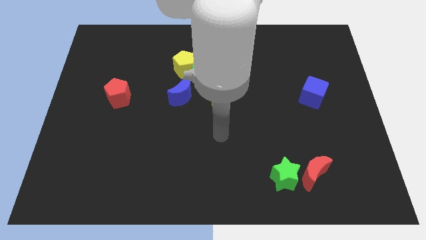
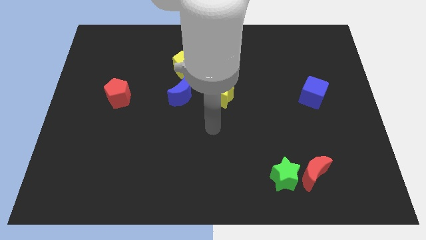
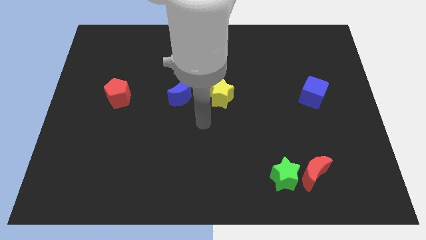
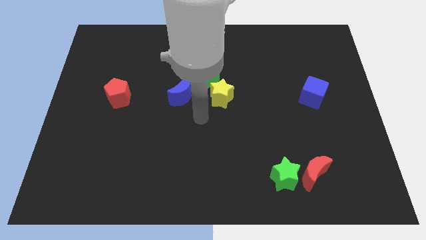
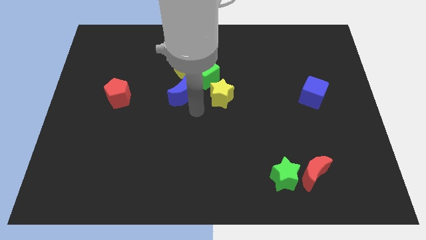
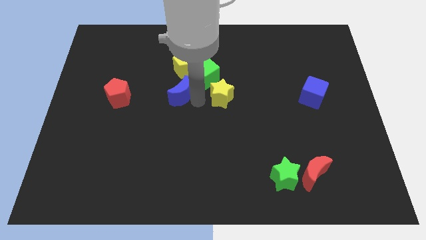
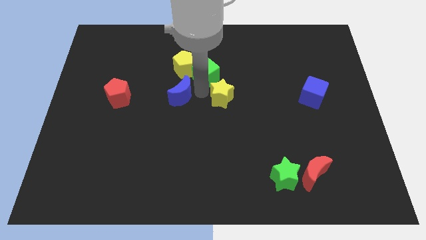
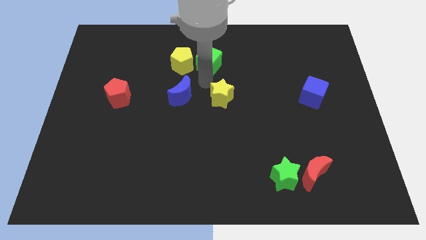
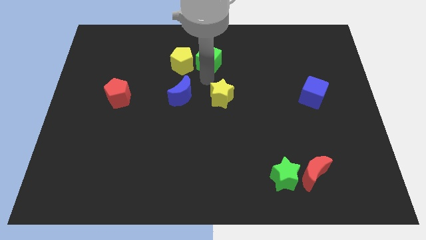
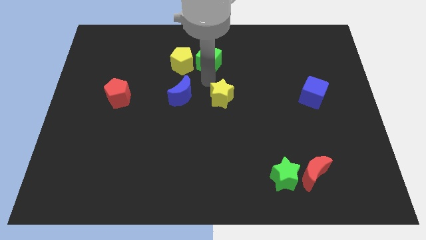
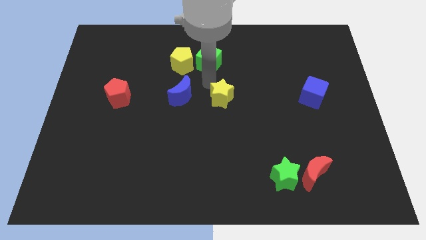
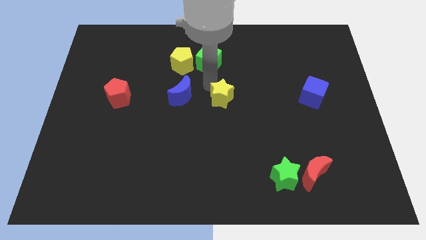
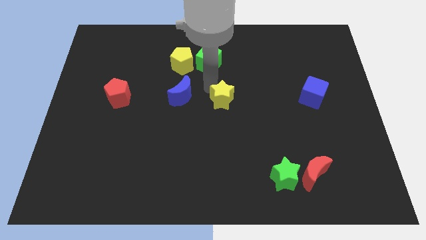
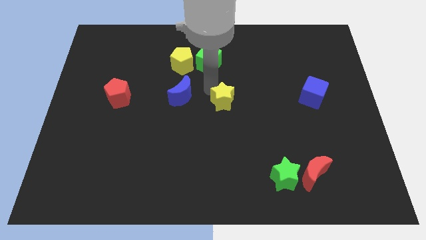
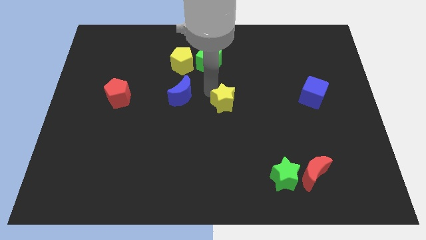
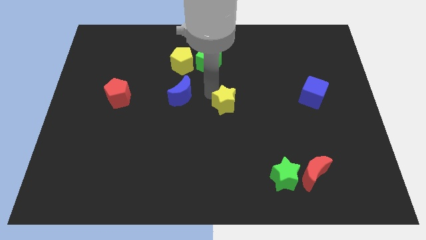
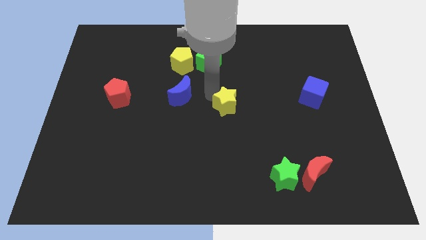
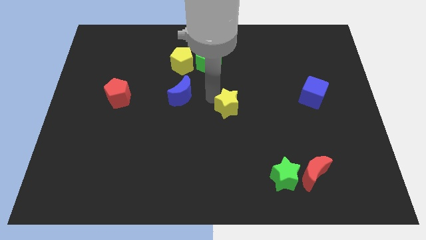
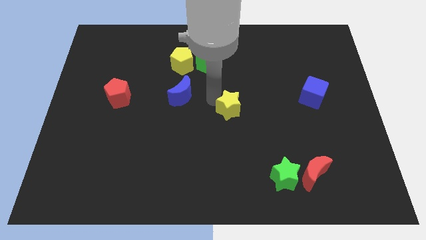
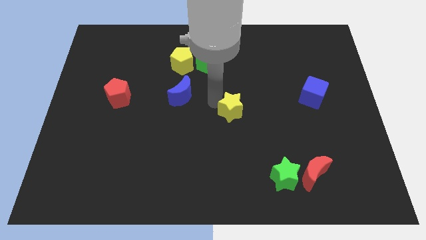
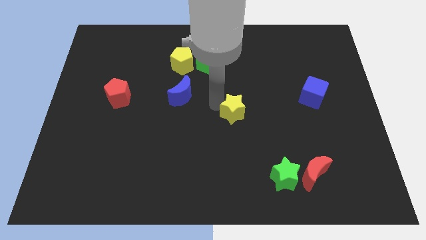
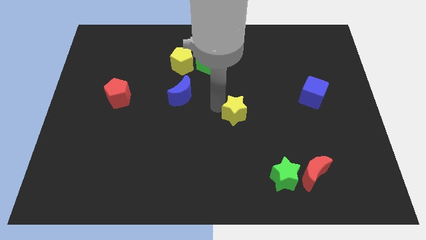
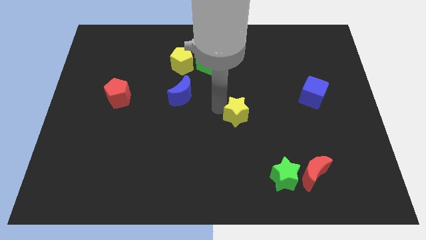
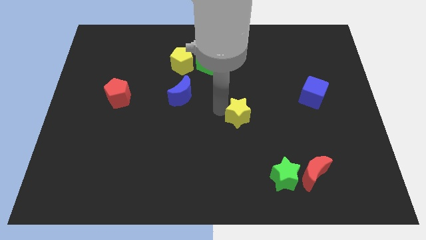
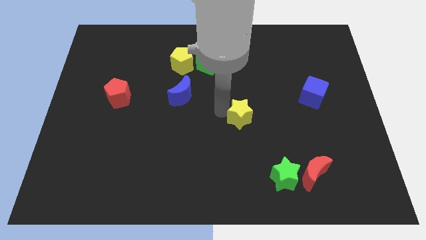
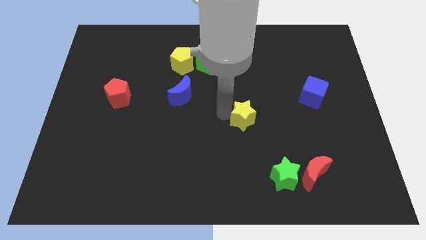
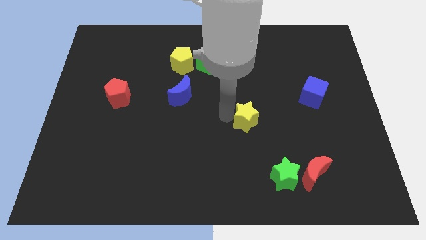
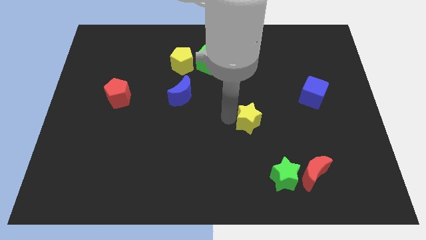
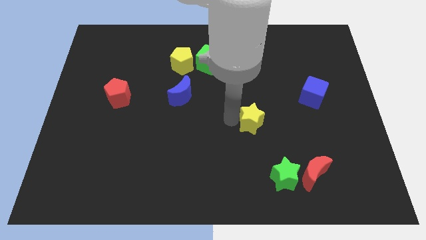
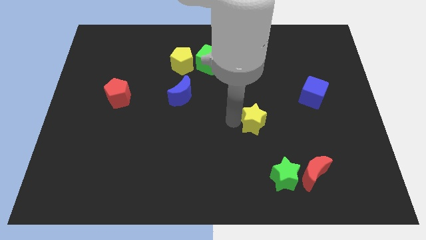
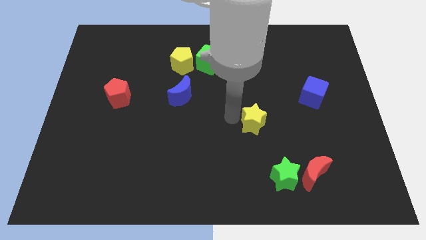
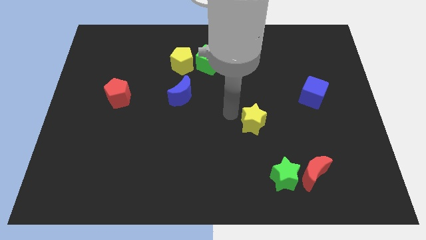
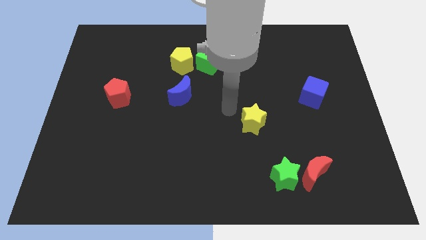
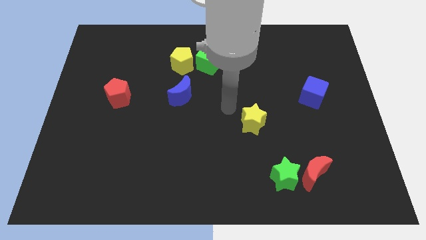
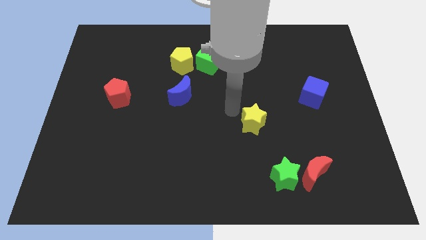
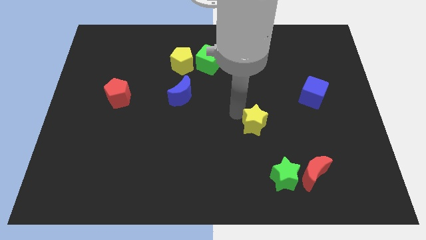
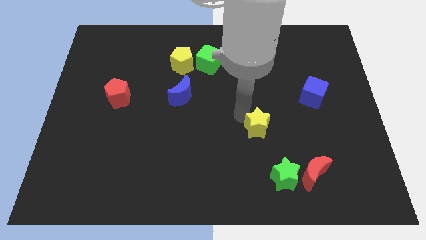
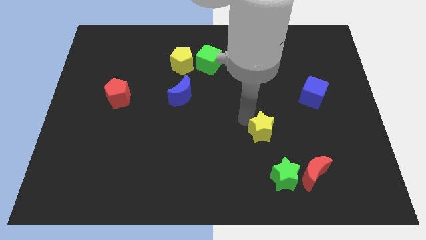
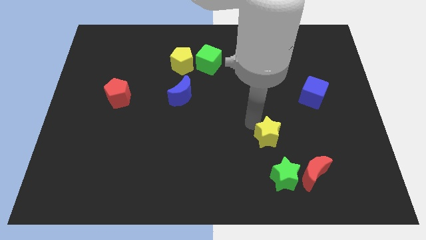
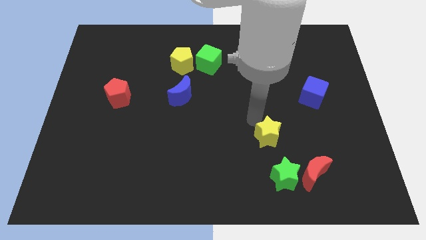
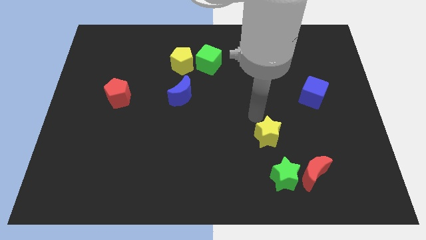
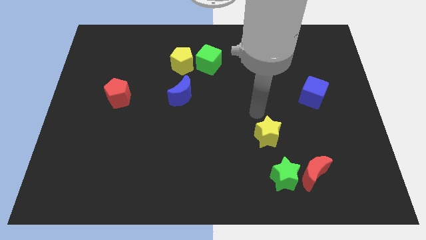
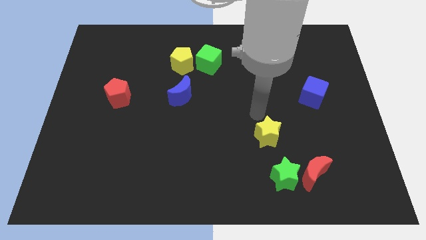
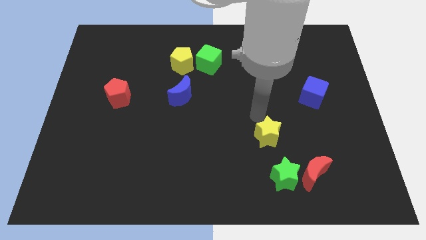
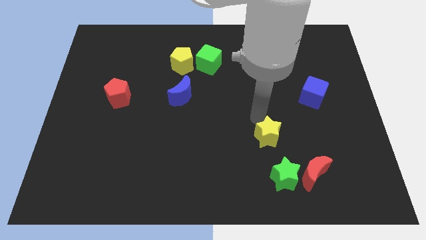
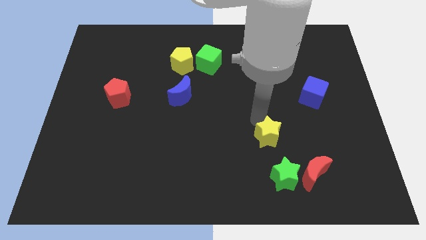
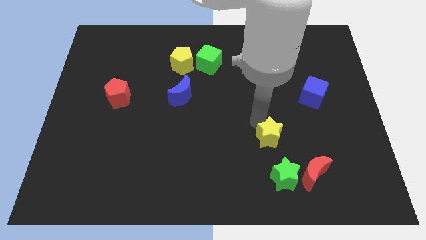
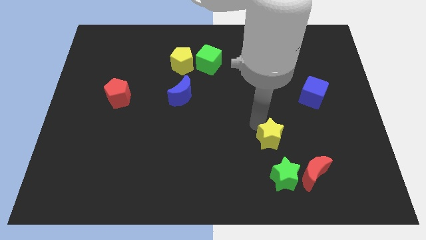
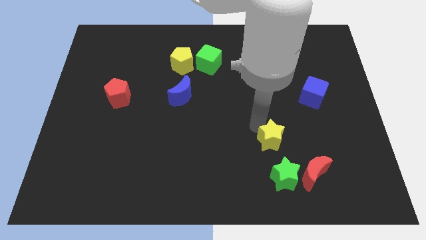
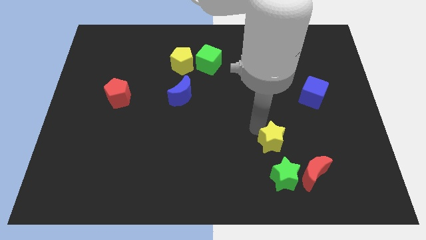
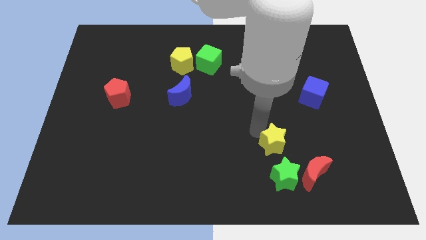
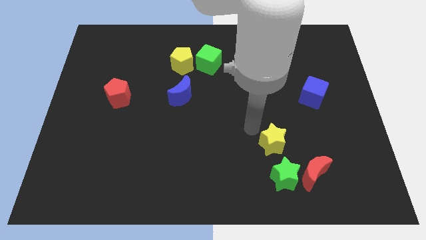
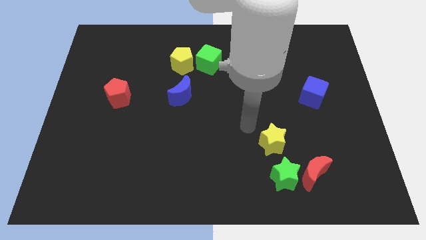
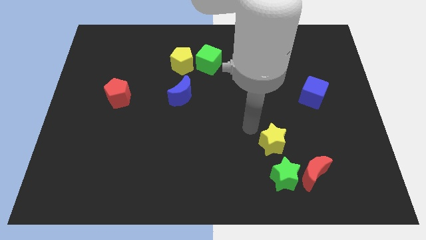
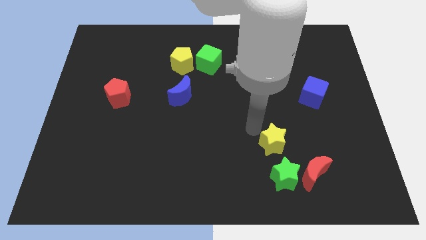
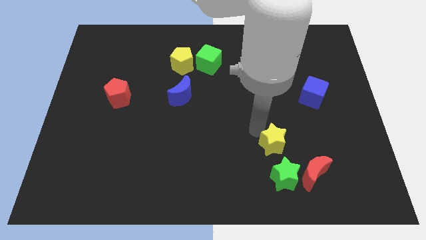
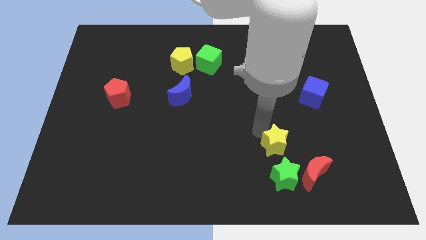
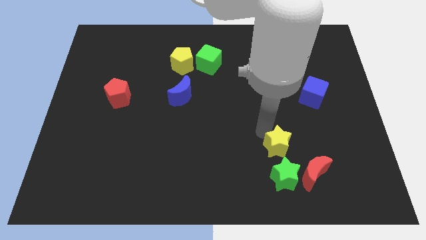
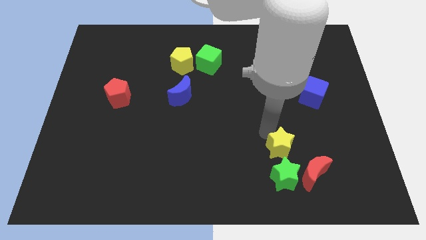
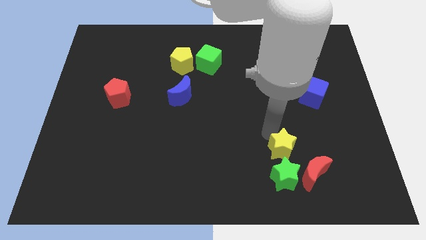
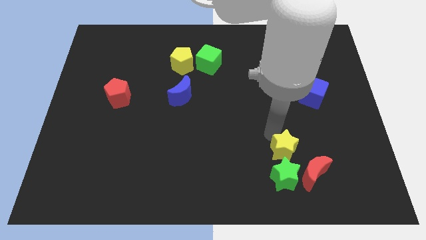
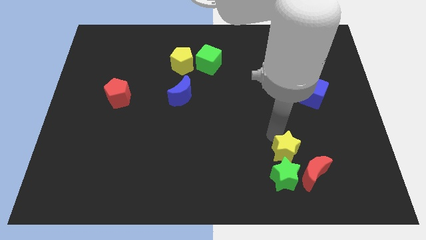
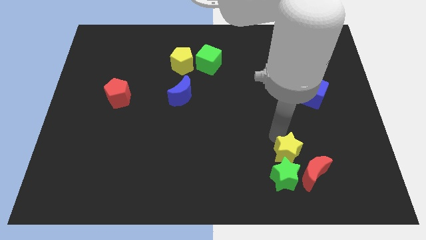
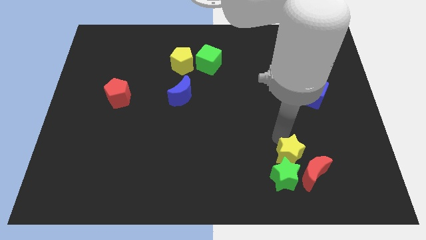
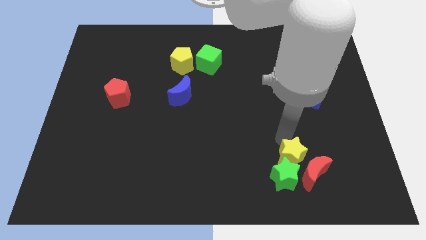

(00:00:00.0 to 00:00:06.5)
slide the yellow star close to the red moon

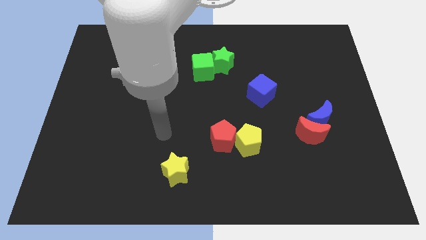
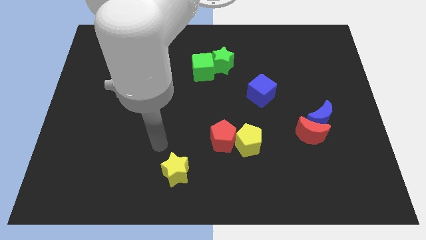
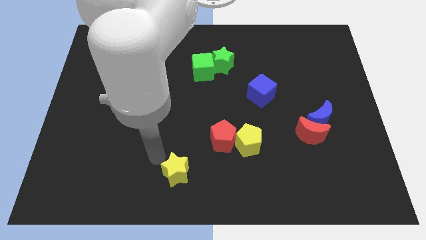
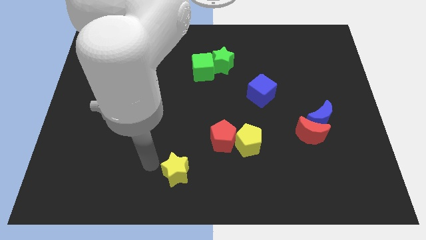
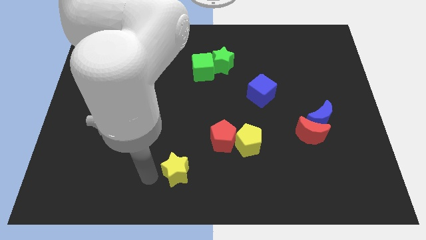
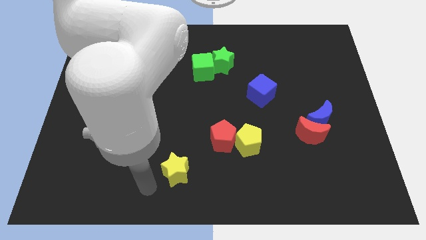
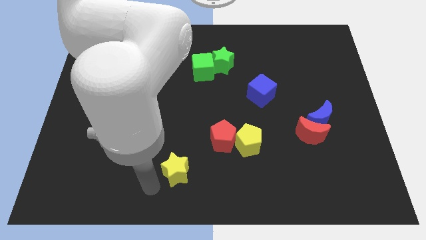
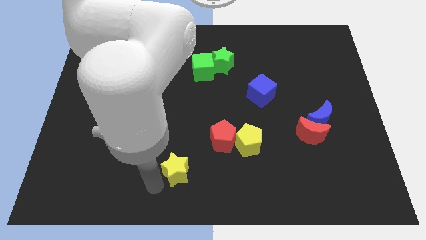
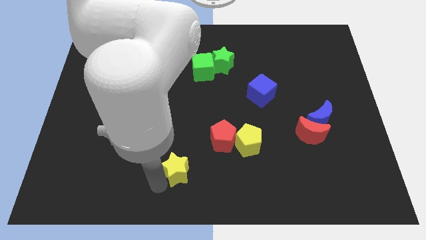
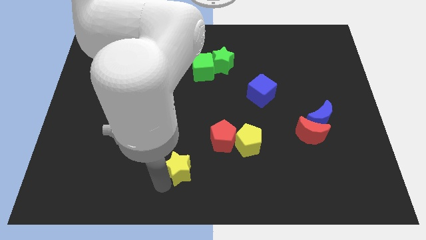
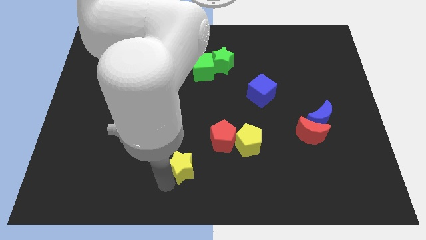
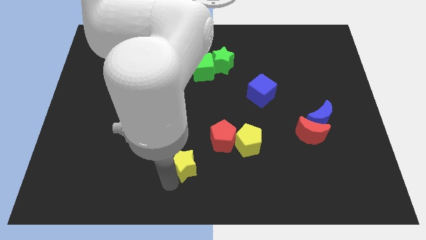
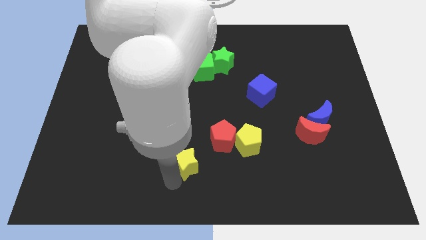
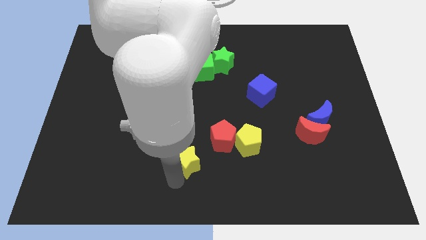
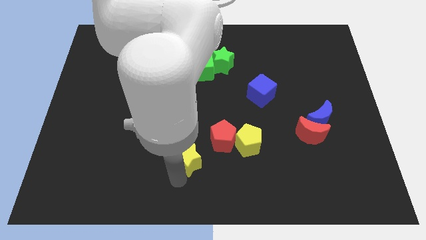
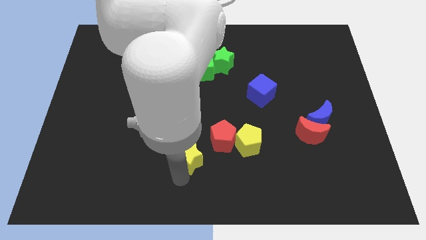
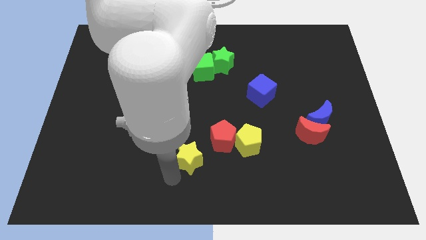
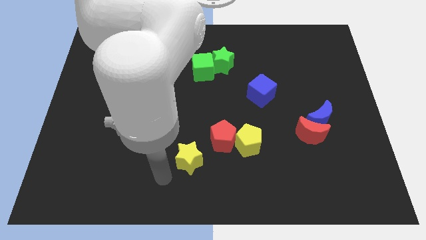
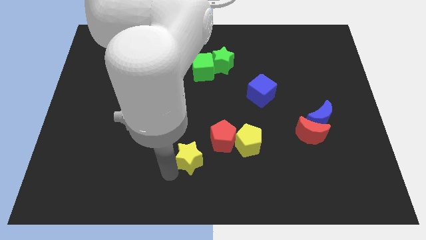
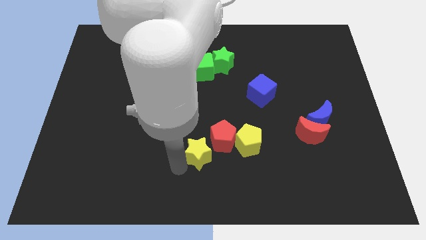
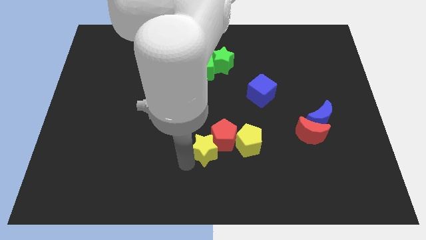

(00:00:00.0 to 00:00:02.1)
put the yellow star close to the red pentagon
